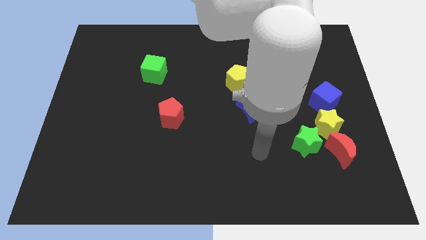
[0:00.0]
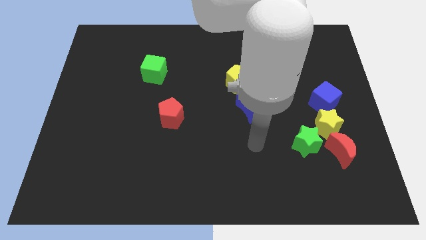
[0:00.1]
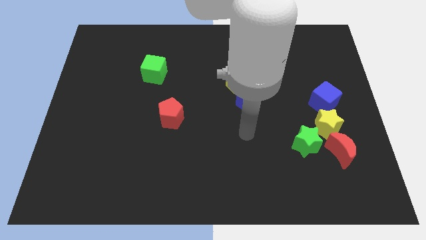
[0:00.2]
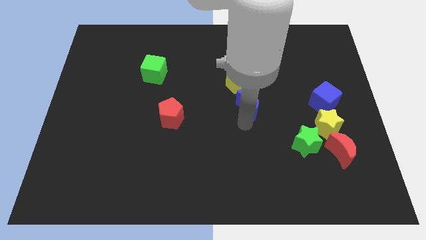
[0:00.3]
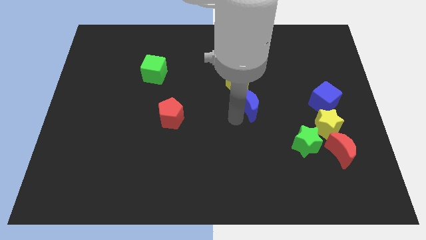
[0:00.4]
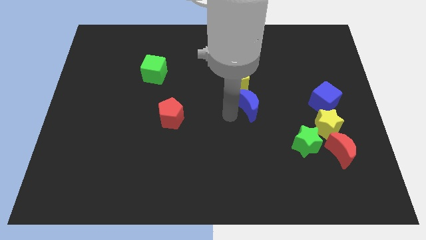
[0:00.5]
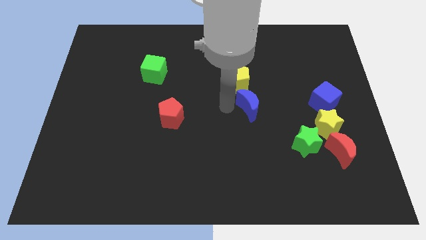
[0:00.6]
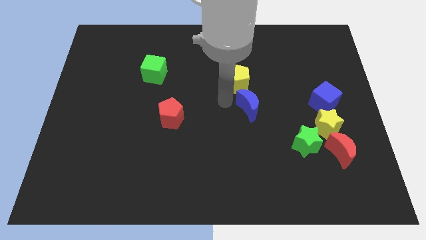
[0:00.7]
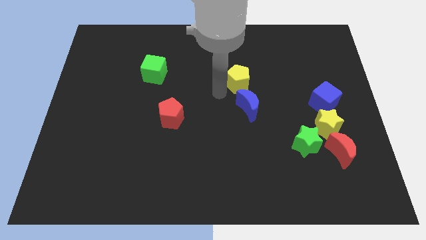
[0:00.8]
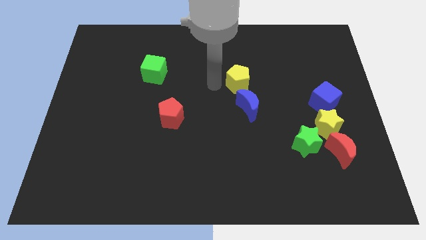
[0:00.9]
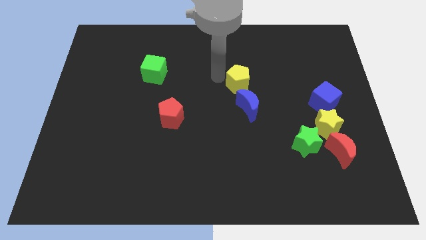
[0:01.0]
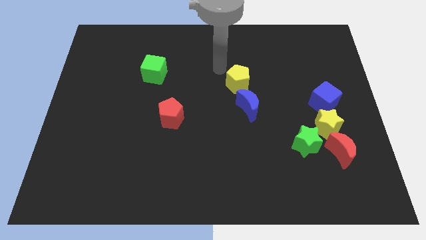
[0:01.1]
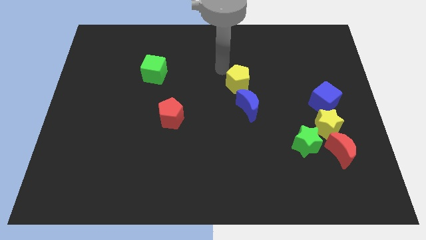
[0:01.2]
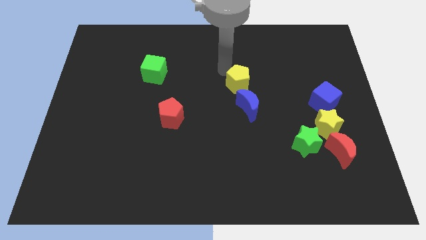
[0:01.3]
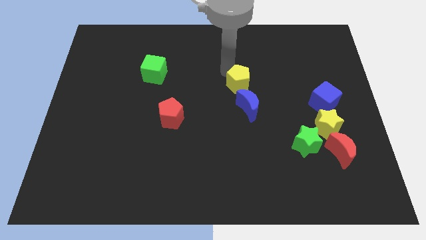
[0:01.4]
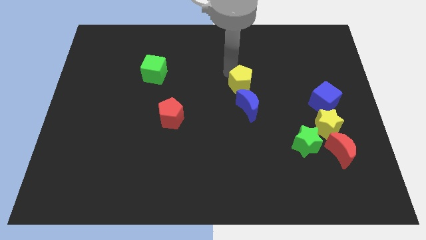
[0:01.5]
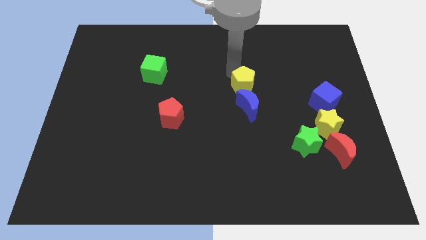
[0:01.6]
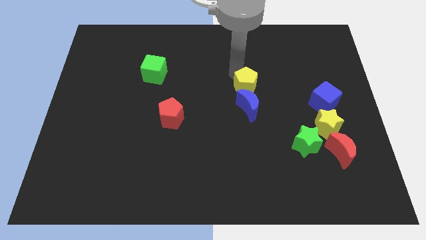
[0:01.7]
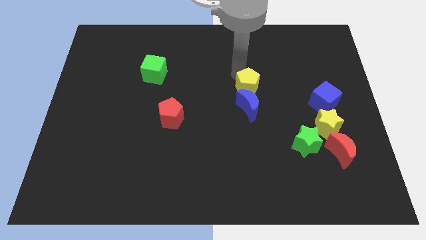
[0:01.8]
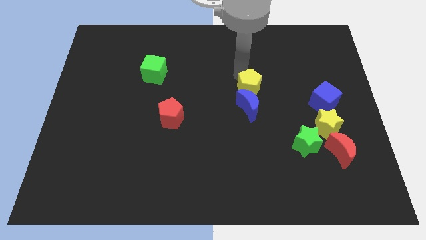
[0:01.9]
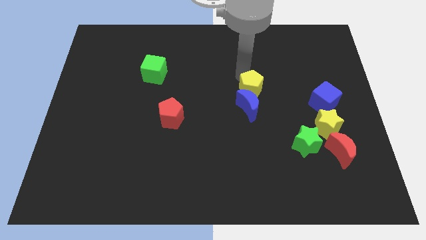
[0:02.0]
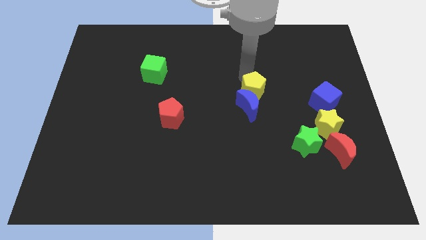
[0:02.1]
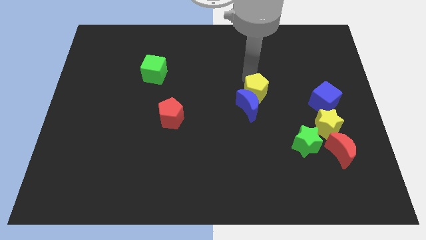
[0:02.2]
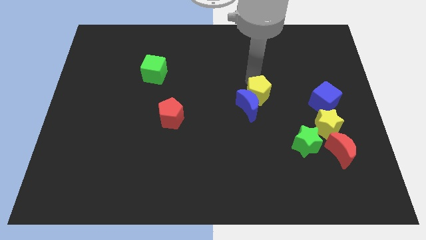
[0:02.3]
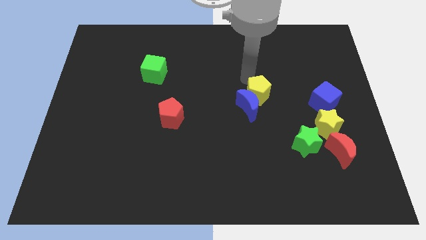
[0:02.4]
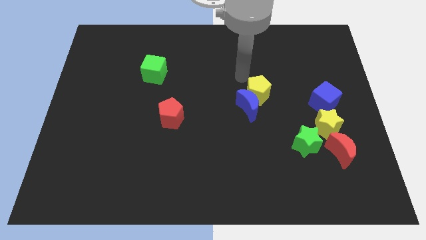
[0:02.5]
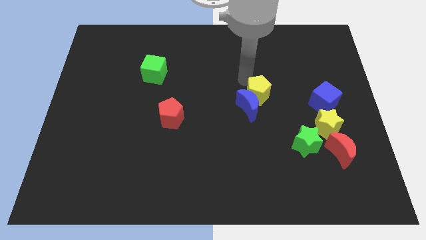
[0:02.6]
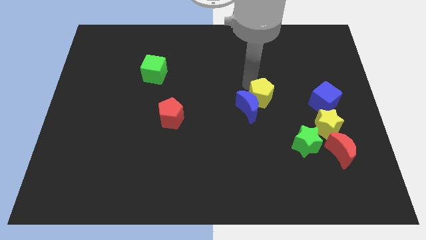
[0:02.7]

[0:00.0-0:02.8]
slide the yellow pentagon down and then to the right slightly

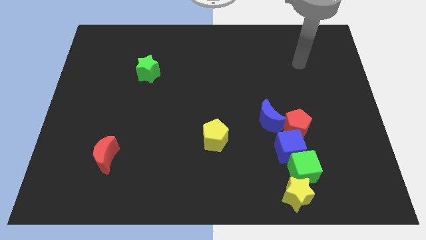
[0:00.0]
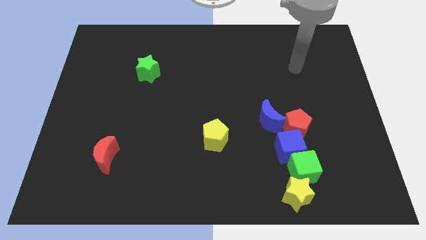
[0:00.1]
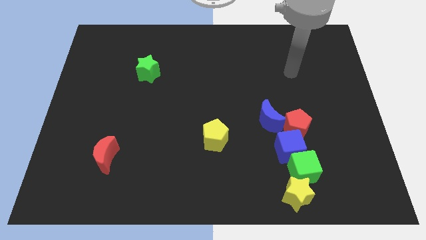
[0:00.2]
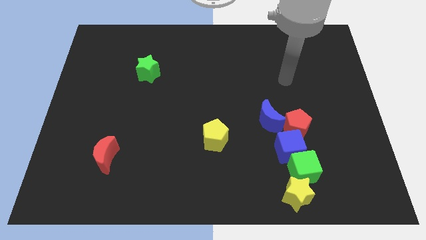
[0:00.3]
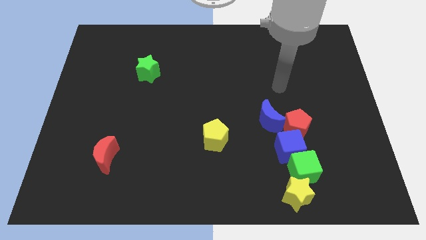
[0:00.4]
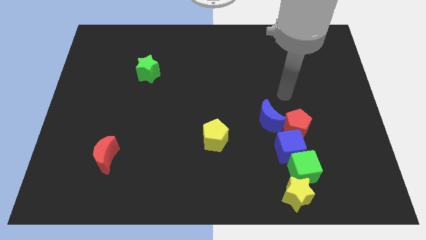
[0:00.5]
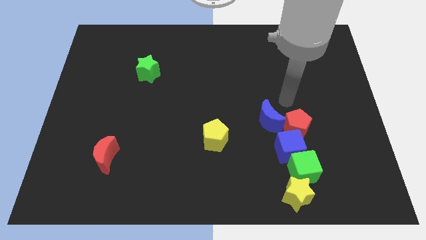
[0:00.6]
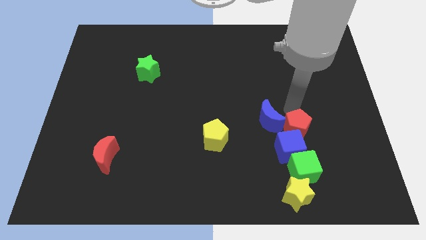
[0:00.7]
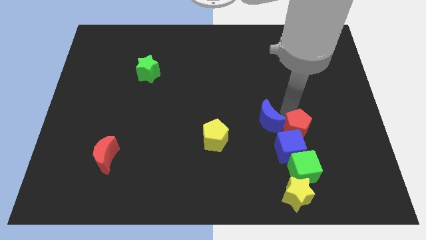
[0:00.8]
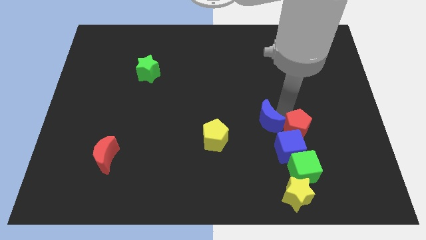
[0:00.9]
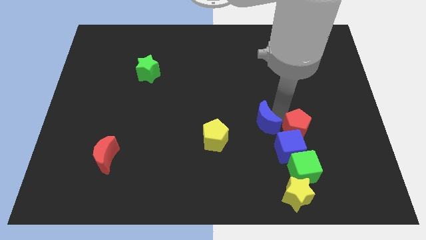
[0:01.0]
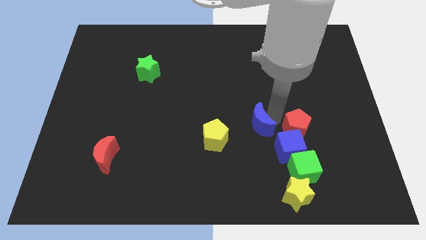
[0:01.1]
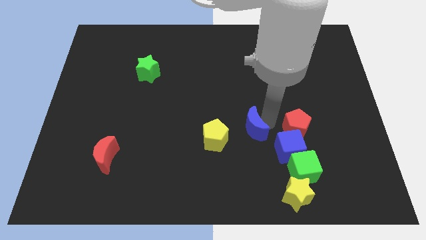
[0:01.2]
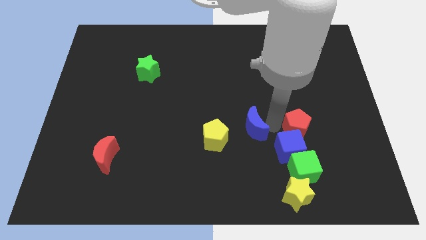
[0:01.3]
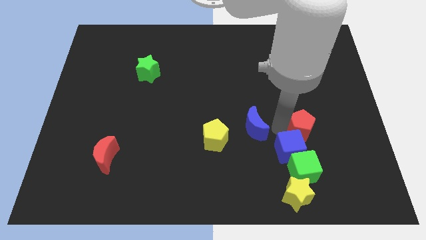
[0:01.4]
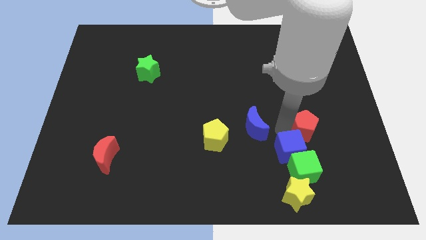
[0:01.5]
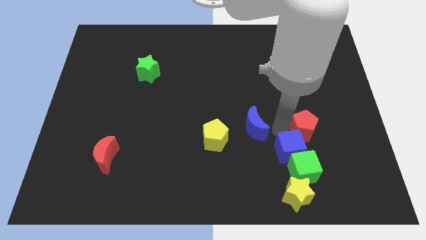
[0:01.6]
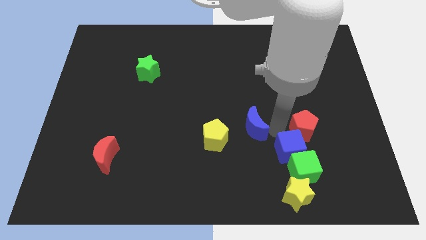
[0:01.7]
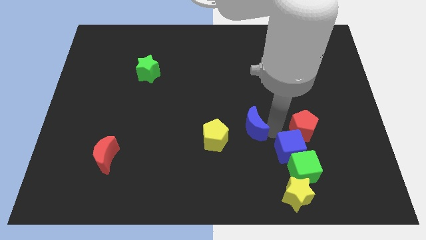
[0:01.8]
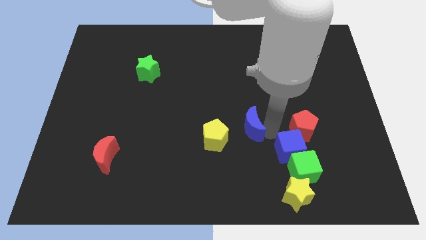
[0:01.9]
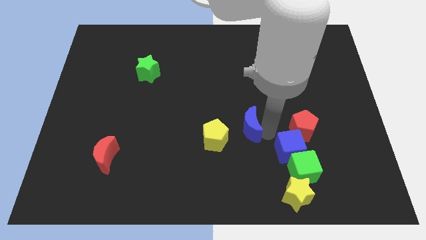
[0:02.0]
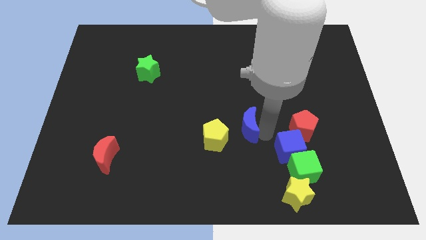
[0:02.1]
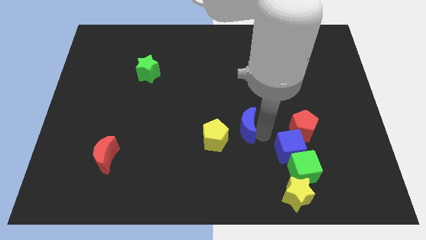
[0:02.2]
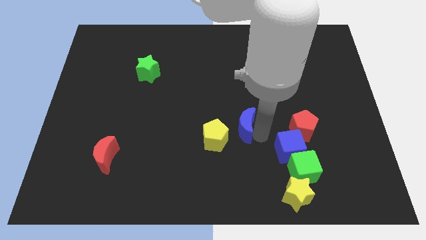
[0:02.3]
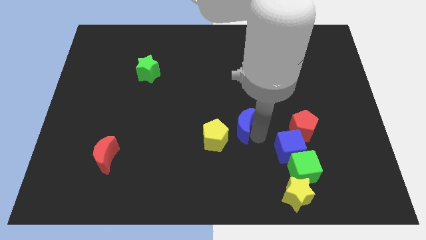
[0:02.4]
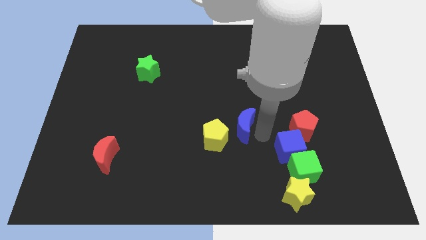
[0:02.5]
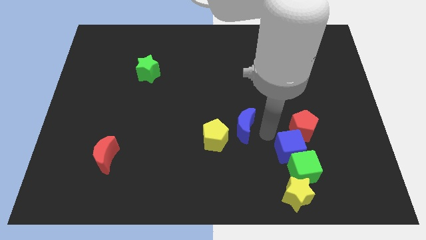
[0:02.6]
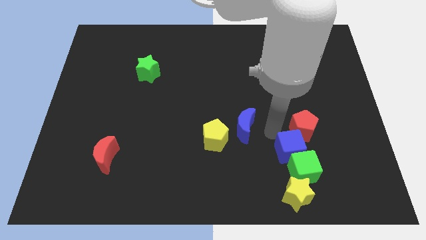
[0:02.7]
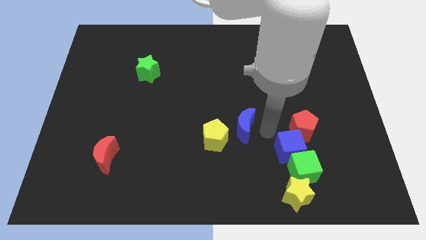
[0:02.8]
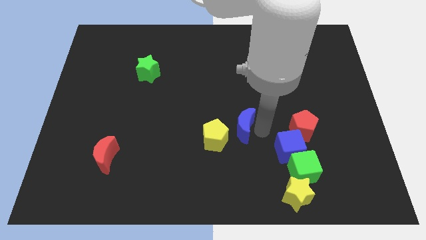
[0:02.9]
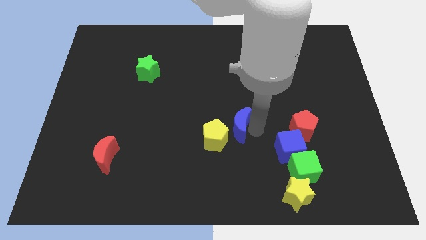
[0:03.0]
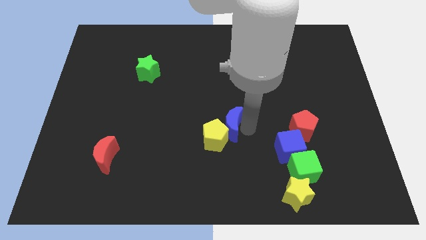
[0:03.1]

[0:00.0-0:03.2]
push the blue moon slightly left

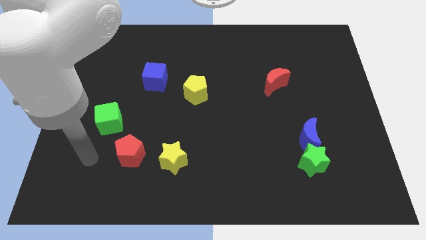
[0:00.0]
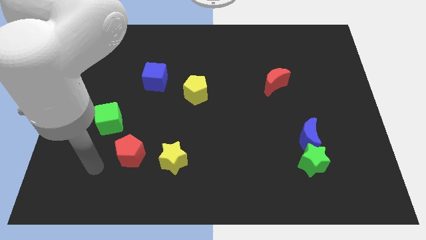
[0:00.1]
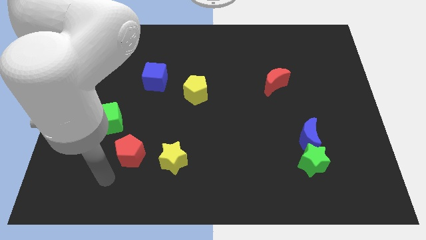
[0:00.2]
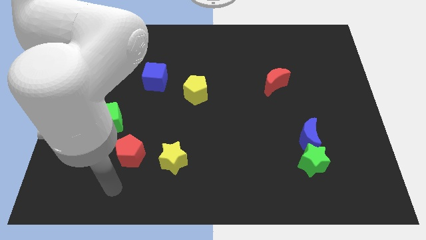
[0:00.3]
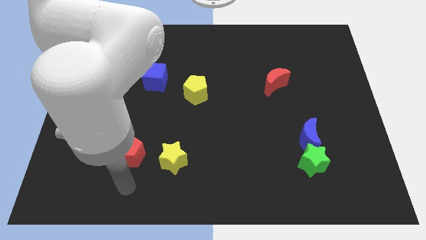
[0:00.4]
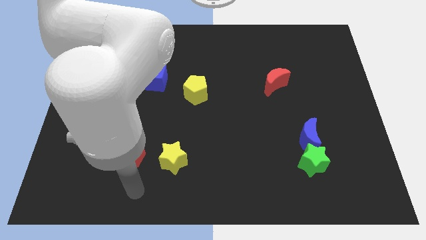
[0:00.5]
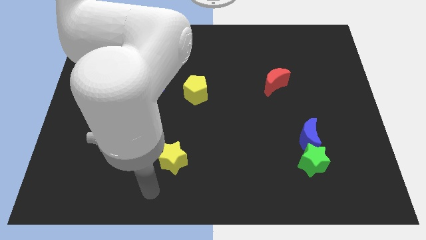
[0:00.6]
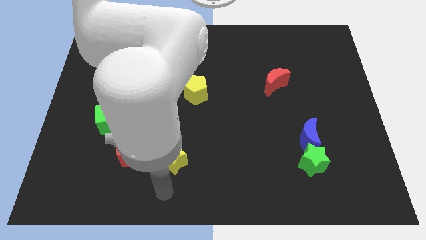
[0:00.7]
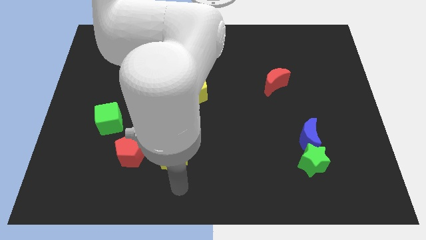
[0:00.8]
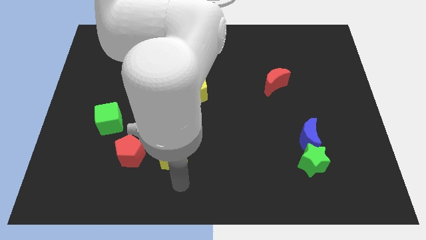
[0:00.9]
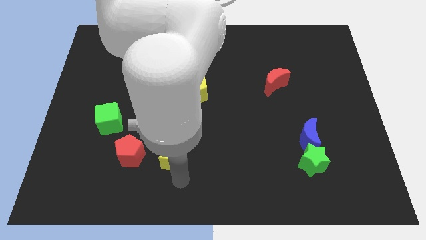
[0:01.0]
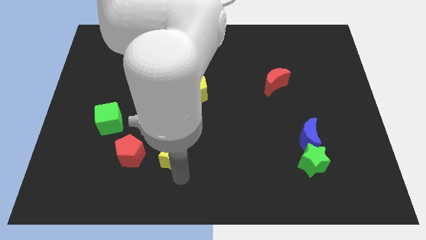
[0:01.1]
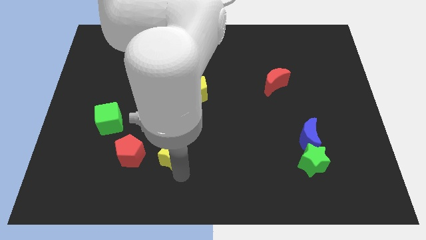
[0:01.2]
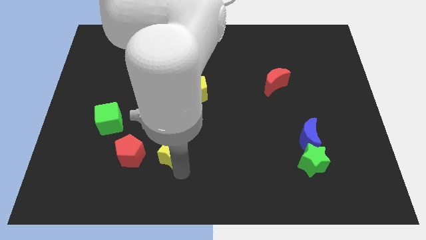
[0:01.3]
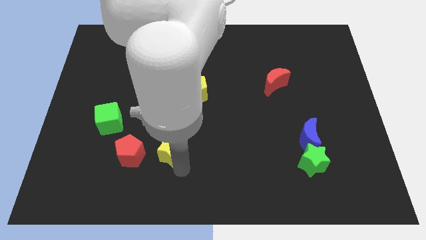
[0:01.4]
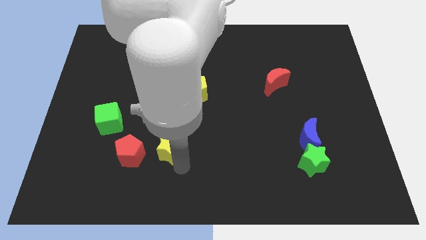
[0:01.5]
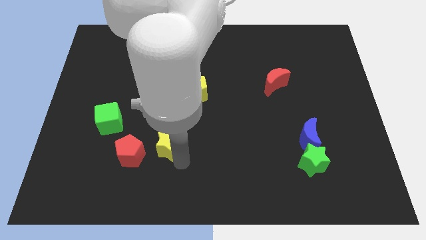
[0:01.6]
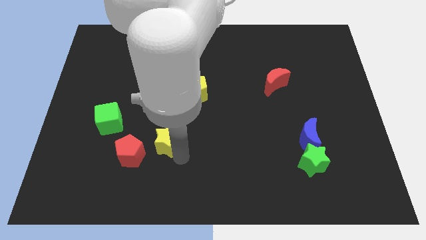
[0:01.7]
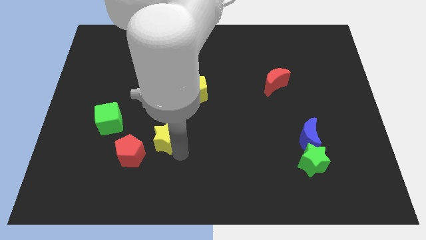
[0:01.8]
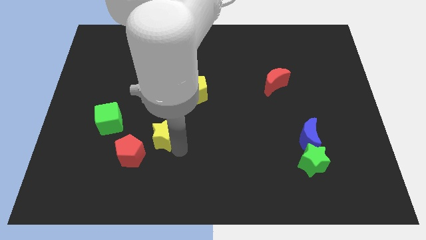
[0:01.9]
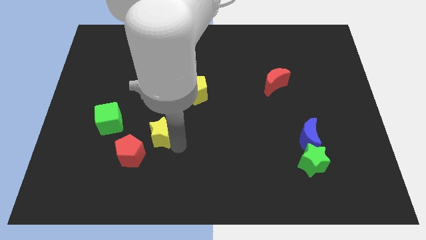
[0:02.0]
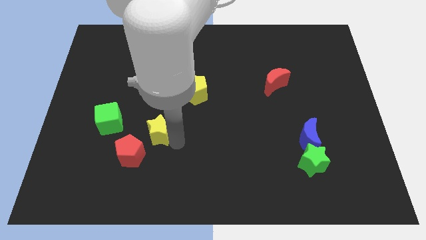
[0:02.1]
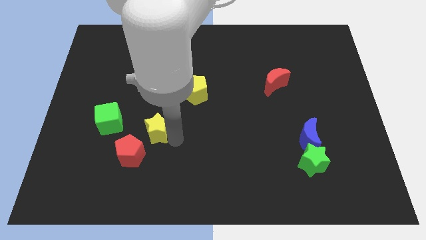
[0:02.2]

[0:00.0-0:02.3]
slightly push the yellow star upwards
